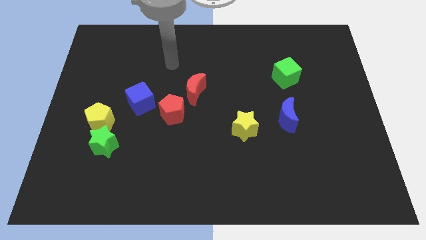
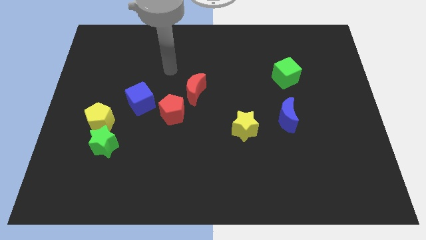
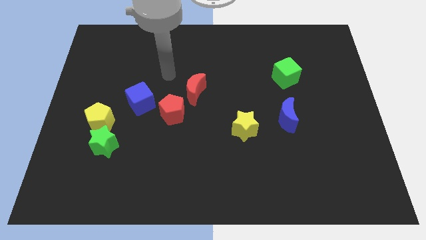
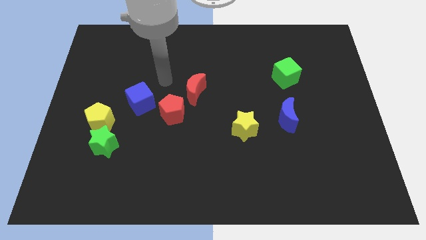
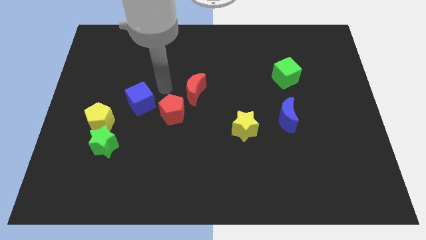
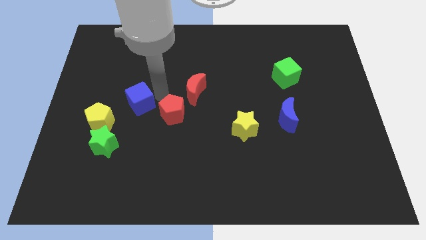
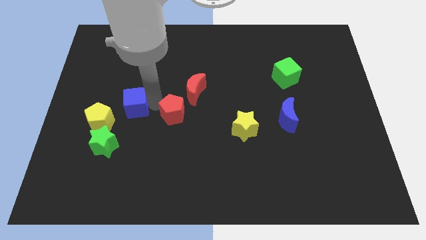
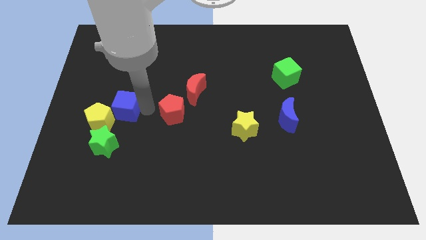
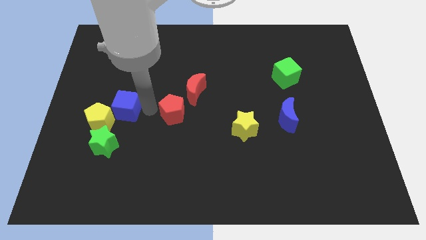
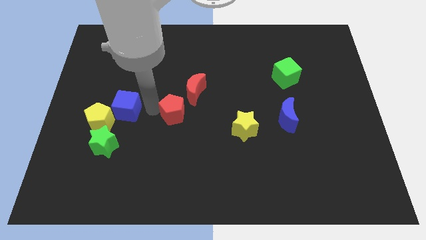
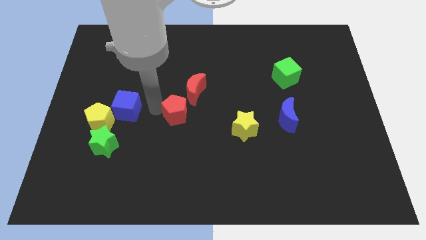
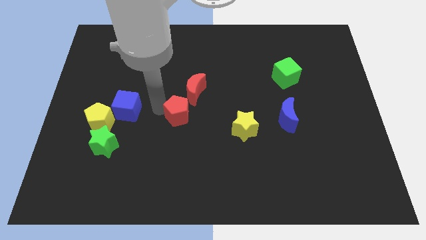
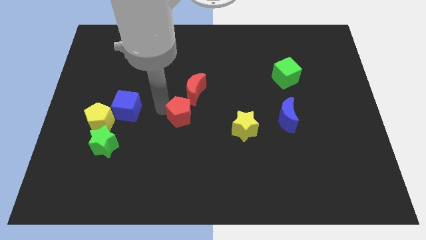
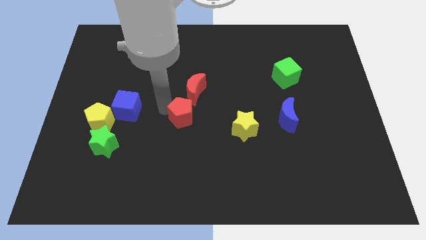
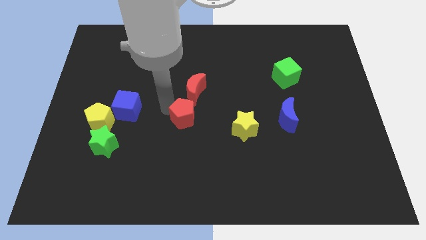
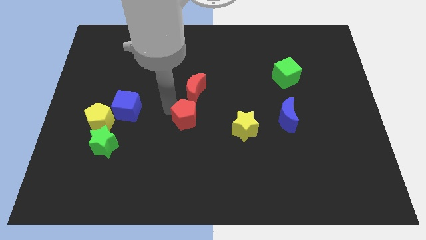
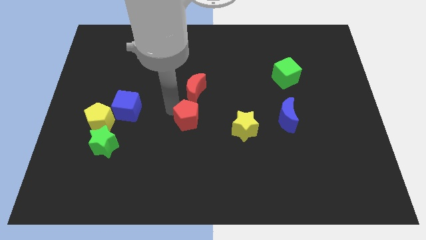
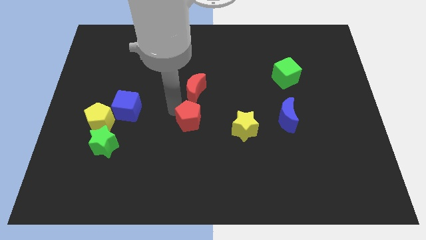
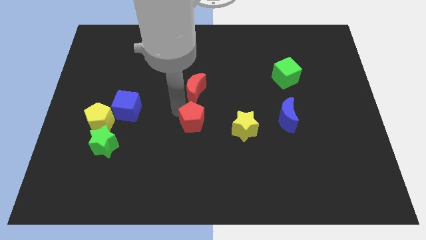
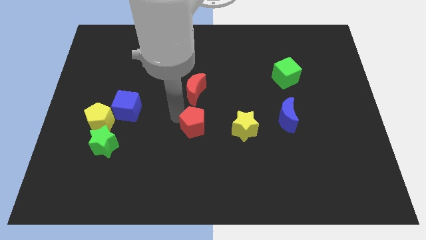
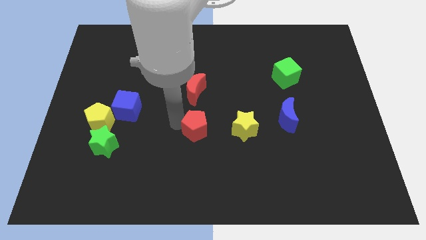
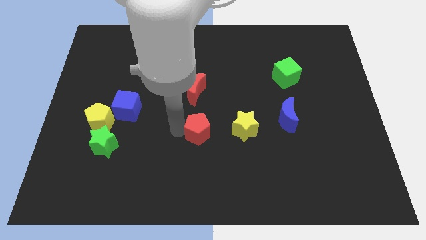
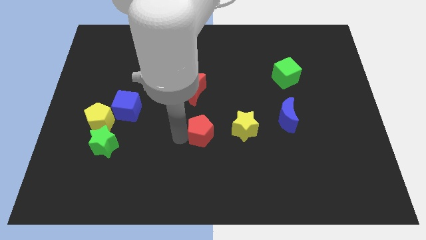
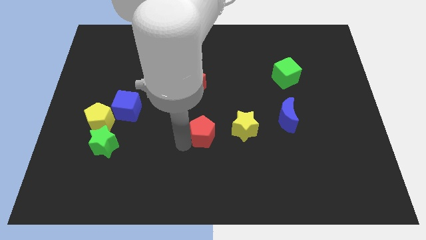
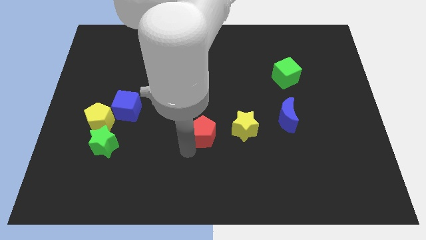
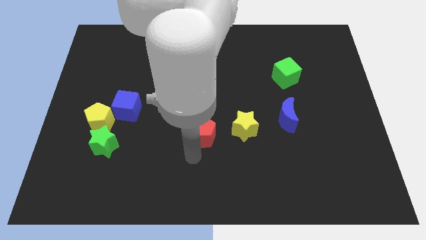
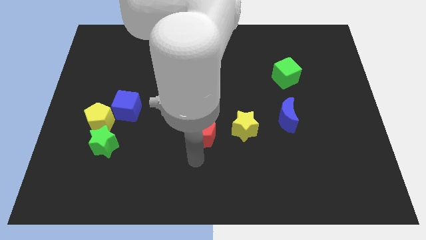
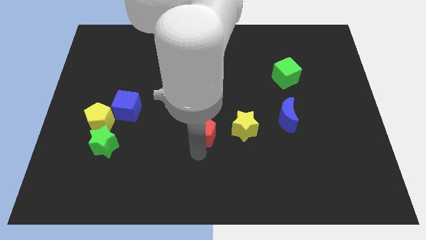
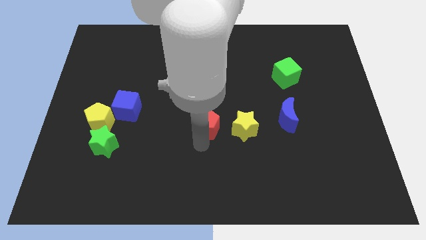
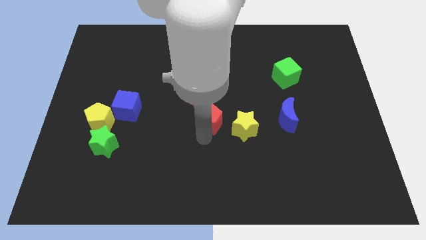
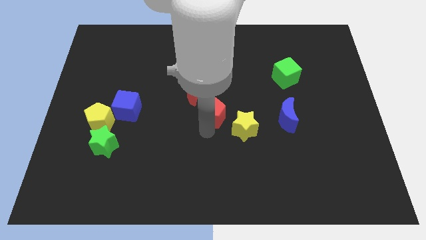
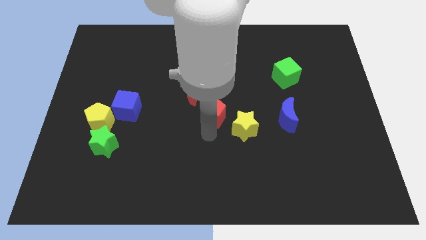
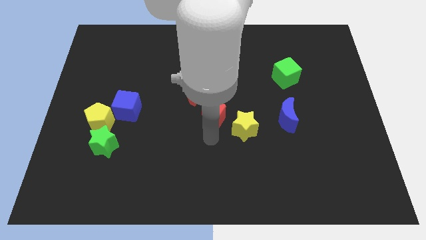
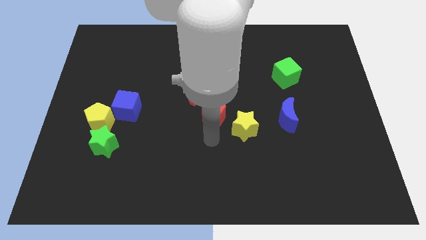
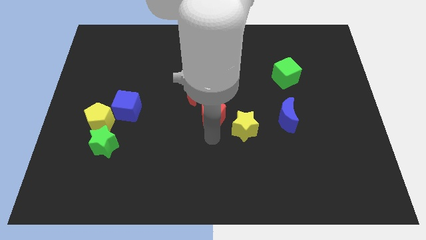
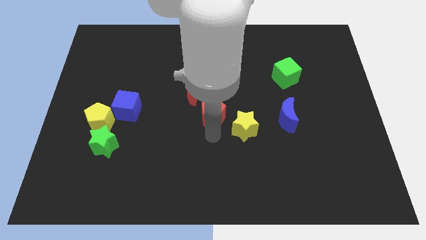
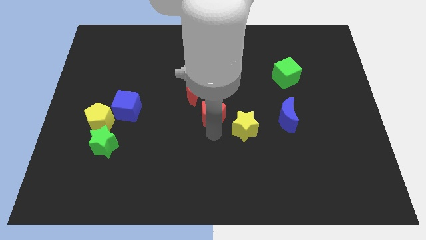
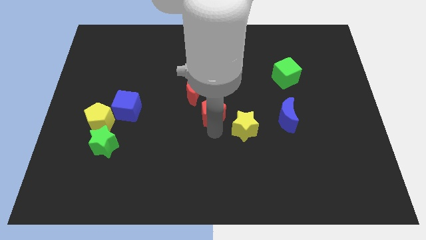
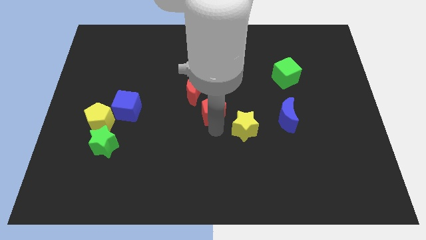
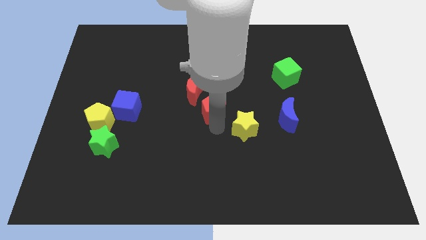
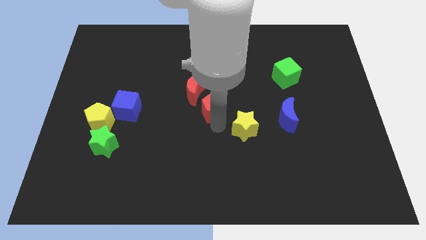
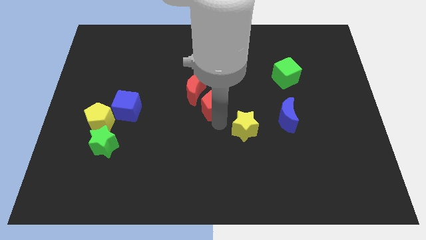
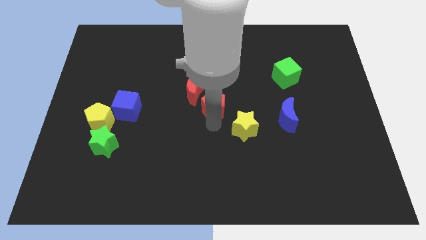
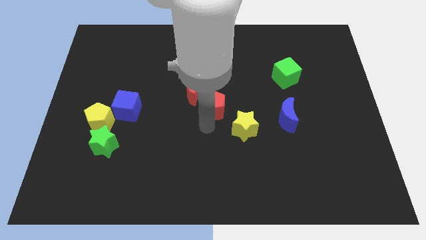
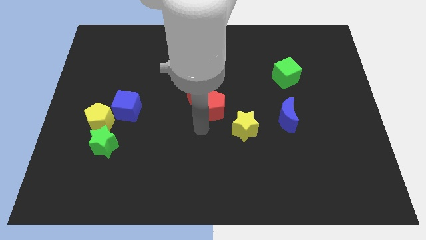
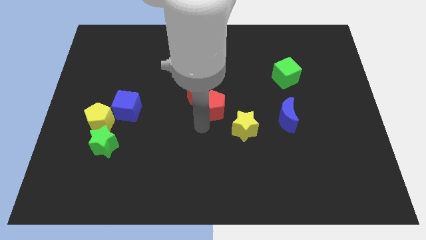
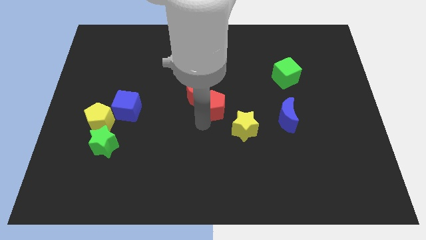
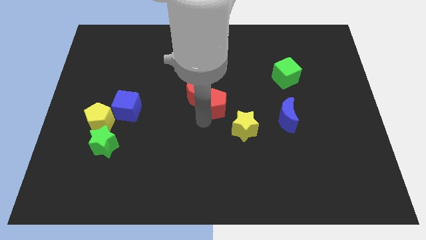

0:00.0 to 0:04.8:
push the red pentagon a bit up and to the right diagonally

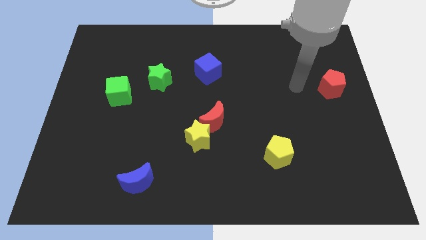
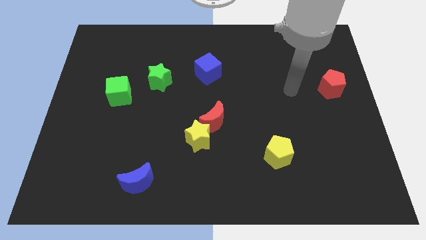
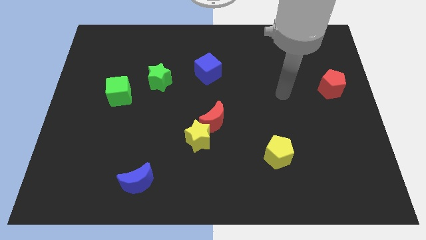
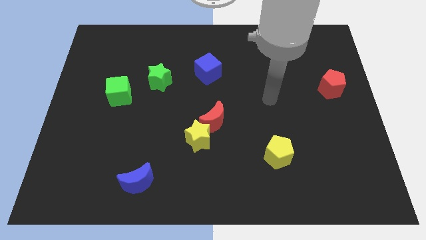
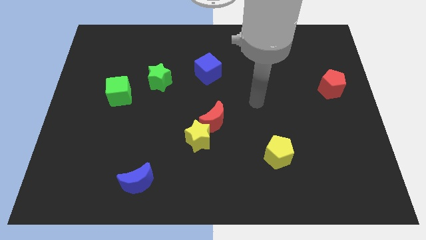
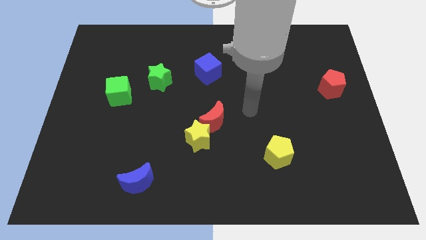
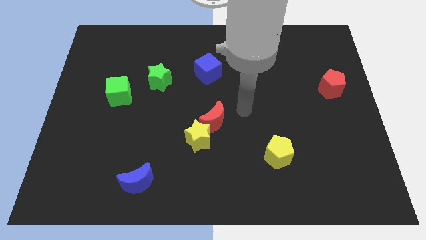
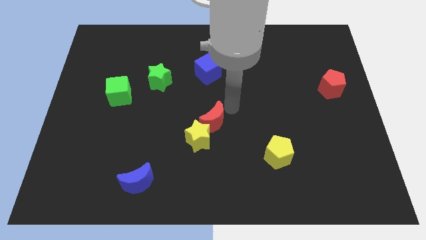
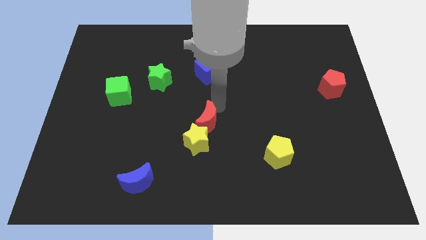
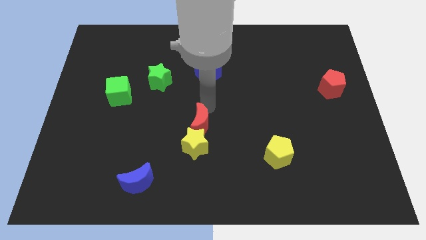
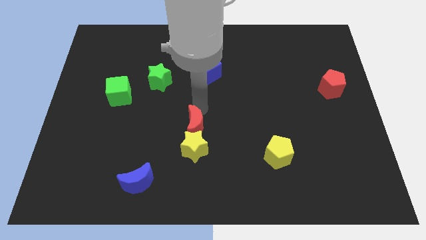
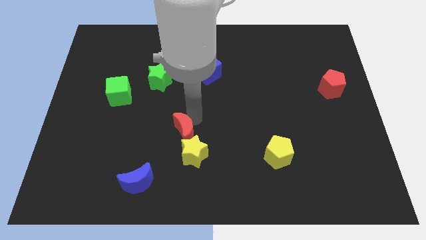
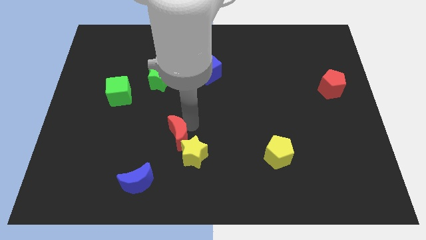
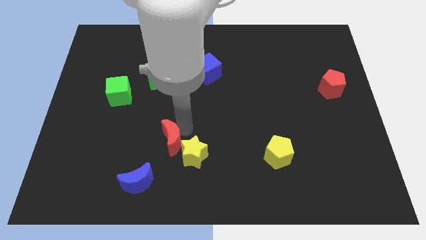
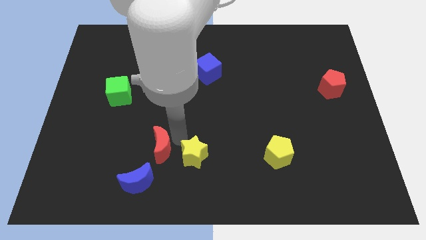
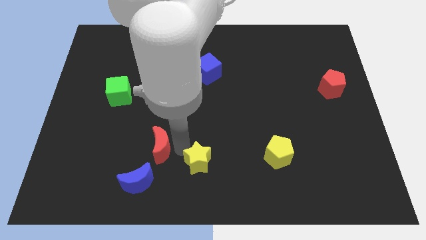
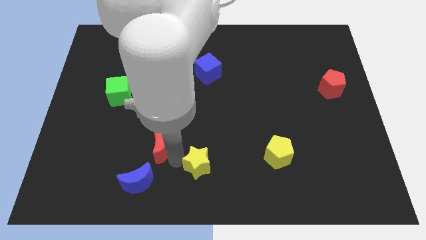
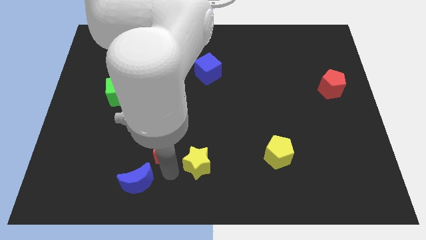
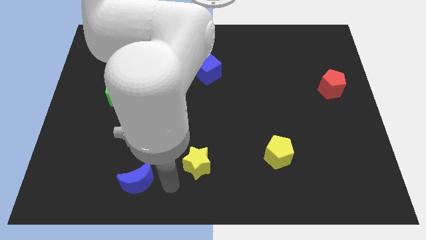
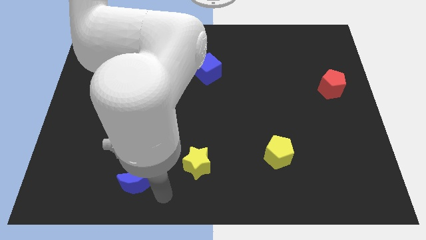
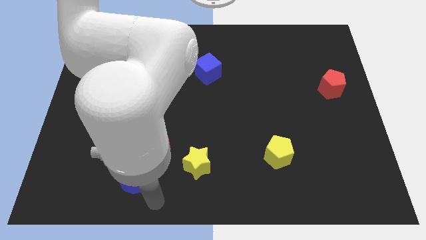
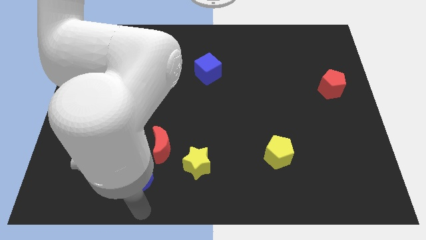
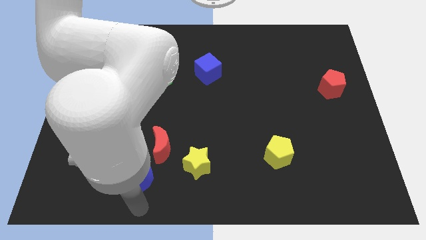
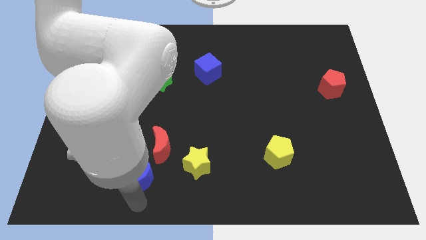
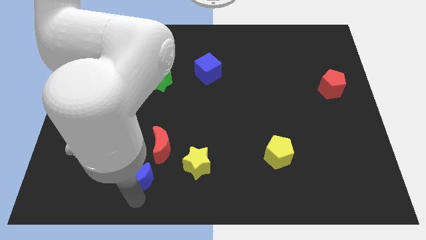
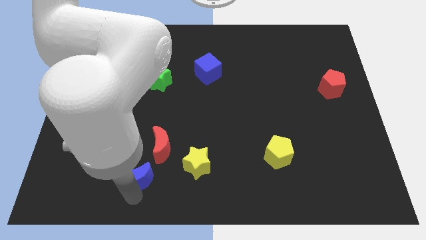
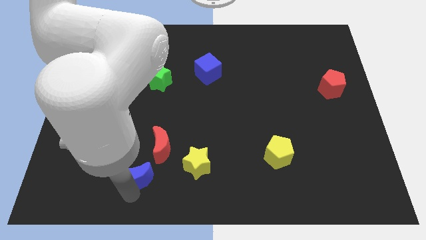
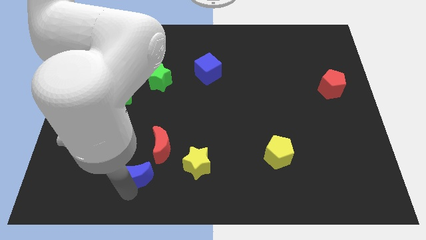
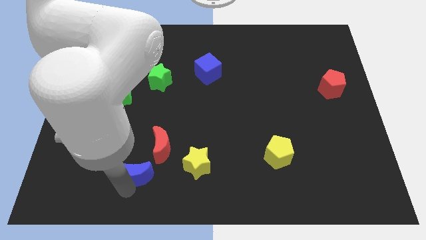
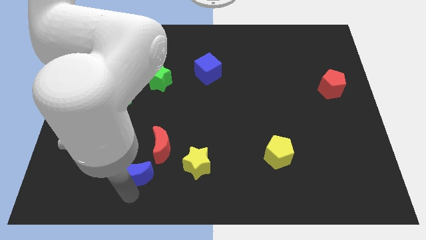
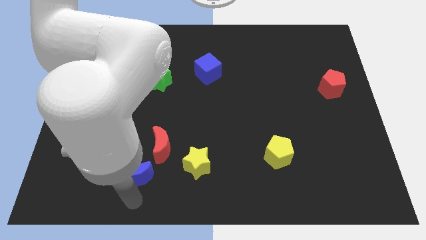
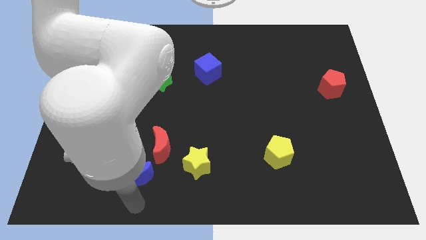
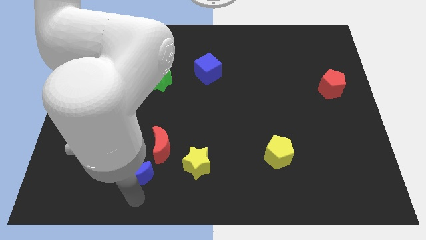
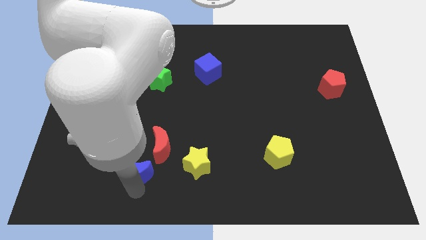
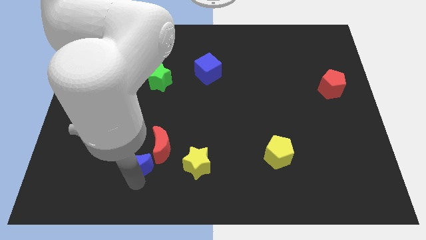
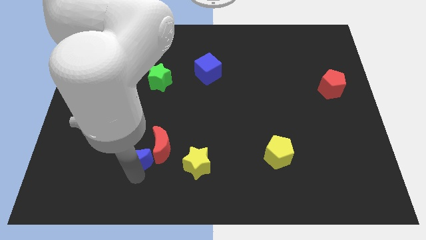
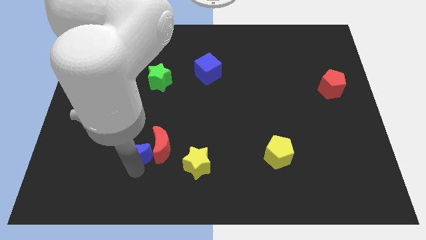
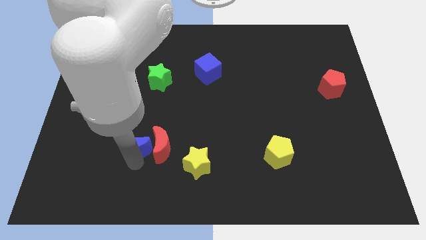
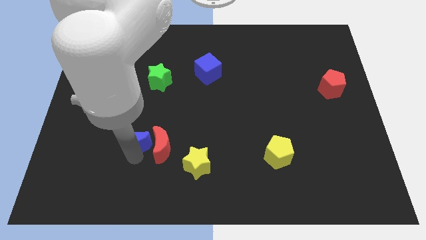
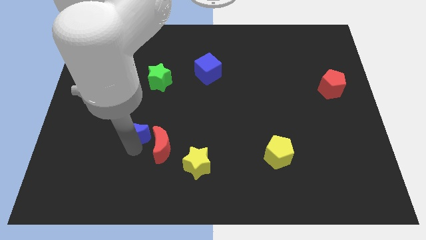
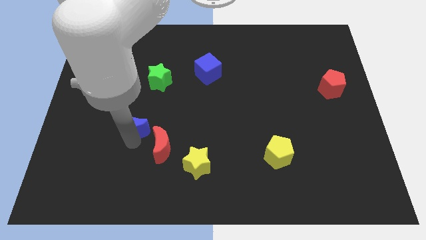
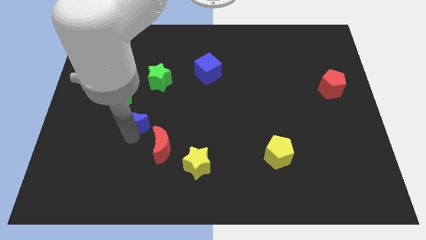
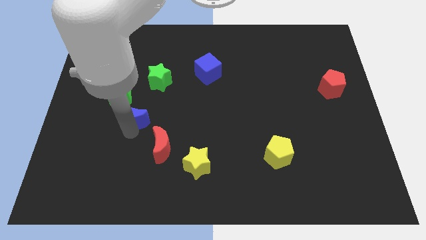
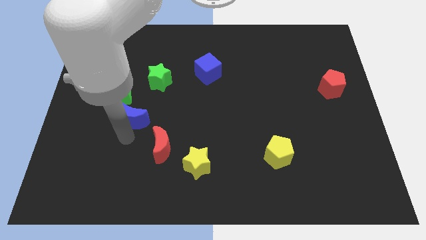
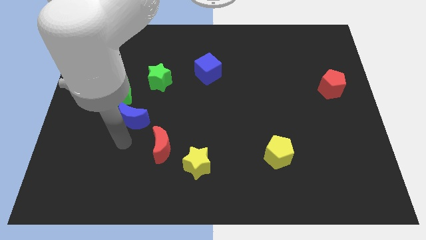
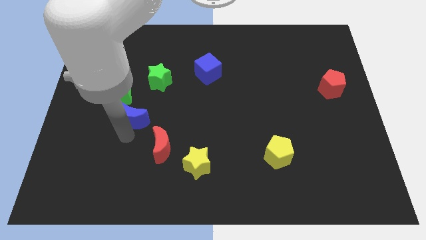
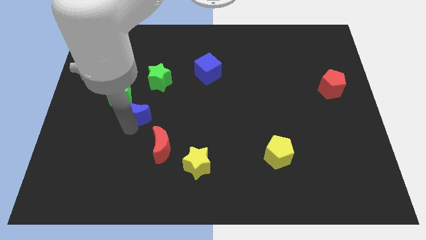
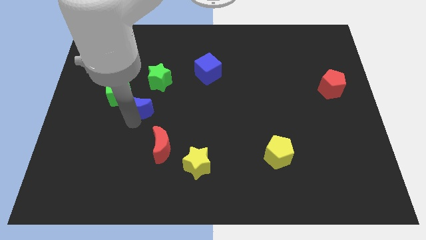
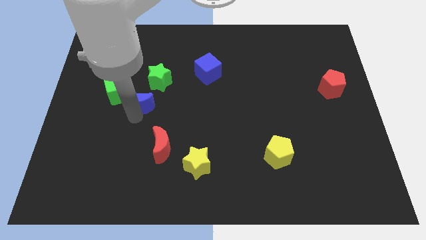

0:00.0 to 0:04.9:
push the blue moon up
